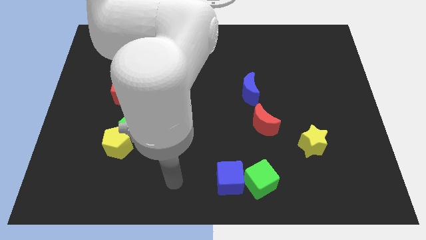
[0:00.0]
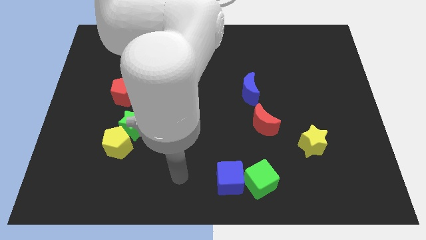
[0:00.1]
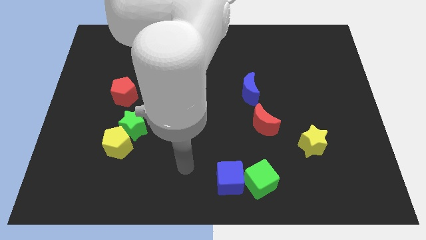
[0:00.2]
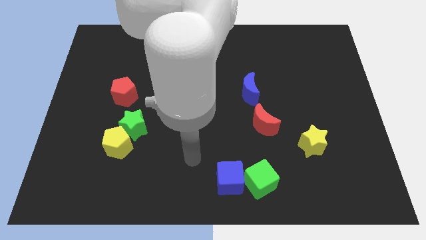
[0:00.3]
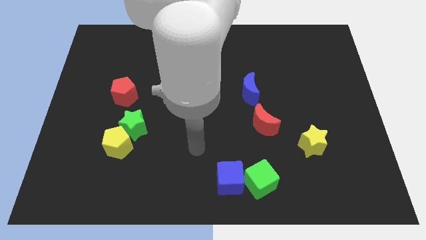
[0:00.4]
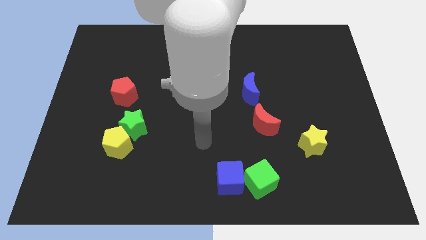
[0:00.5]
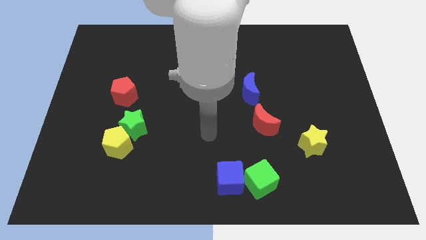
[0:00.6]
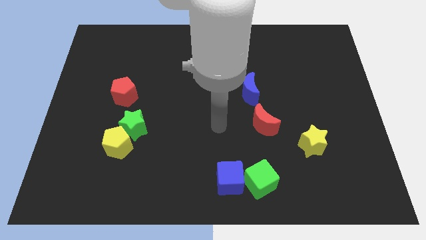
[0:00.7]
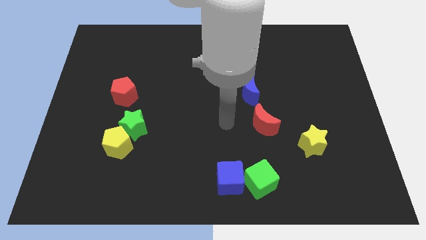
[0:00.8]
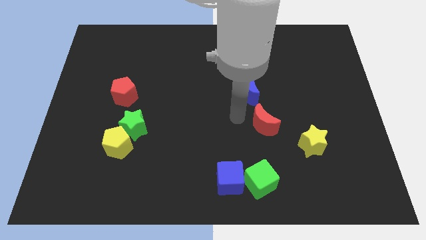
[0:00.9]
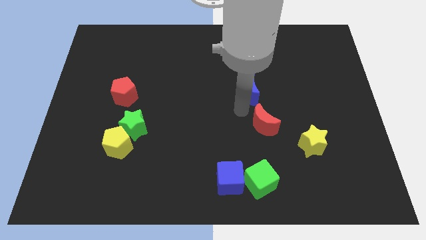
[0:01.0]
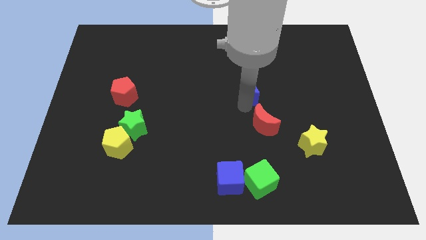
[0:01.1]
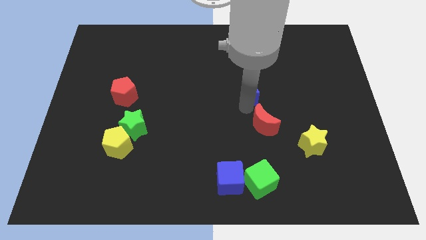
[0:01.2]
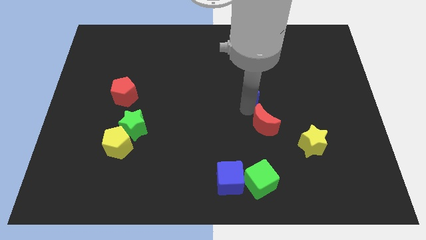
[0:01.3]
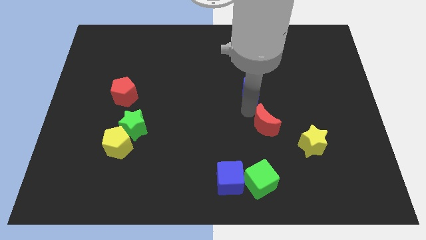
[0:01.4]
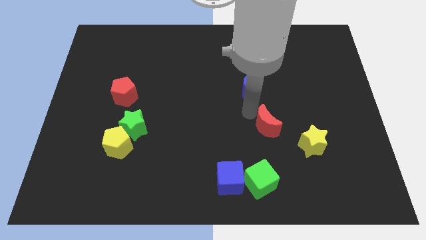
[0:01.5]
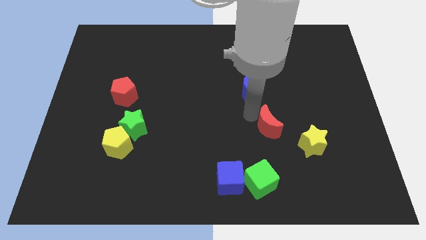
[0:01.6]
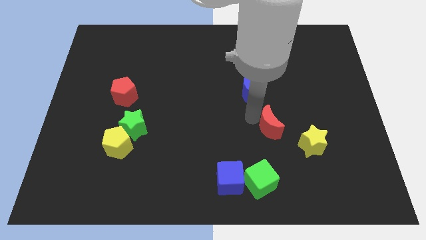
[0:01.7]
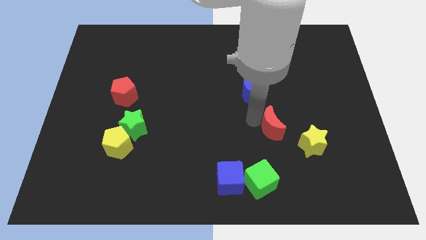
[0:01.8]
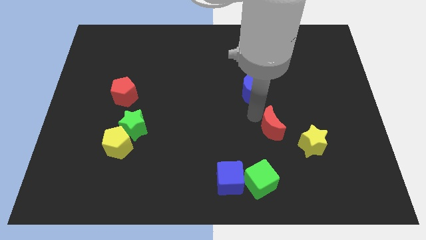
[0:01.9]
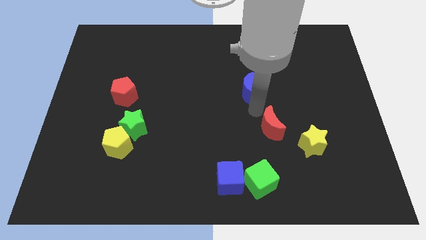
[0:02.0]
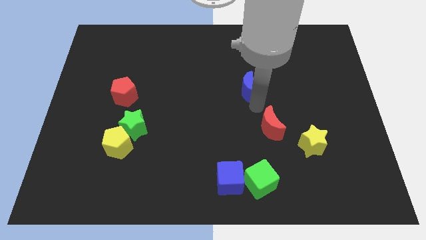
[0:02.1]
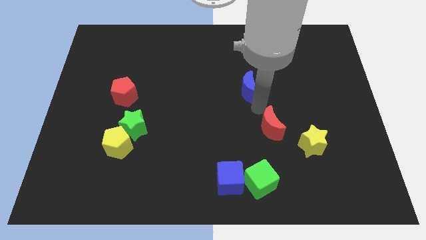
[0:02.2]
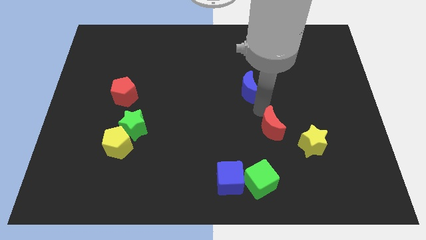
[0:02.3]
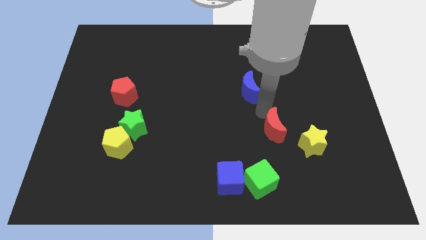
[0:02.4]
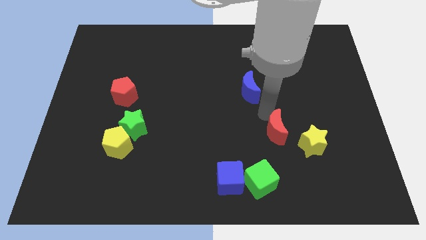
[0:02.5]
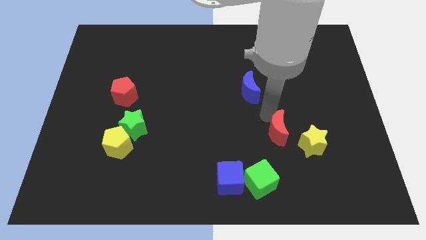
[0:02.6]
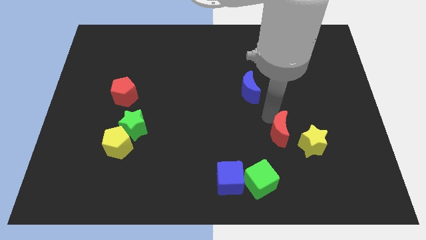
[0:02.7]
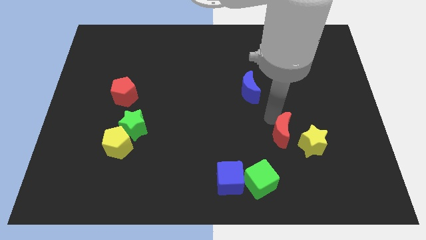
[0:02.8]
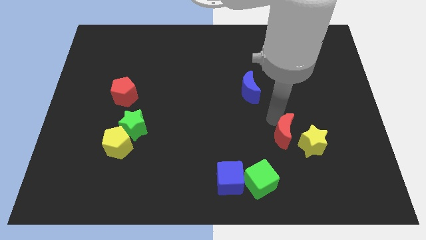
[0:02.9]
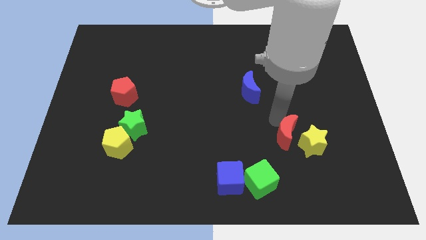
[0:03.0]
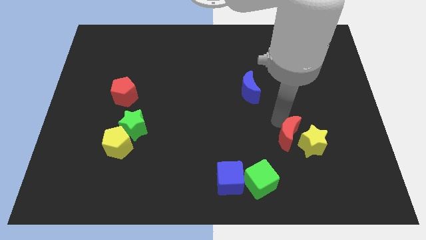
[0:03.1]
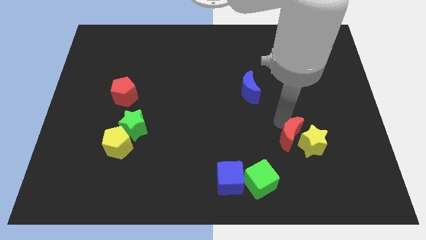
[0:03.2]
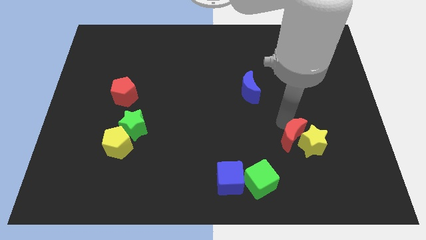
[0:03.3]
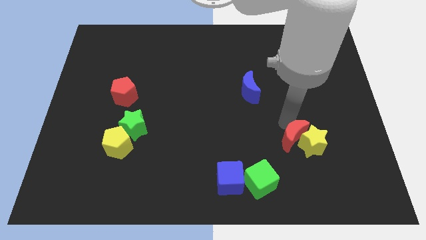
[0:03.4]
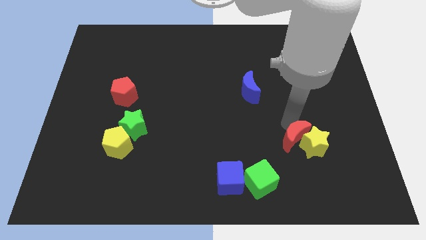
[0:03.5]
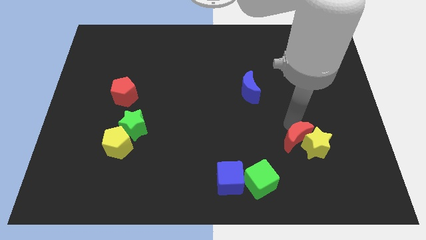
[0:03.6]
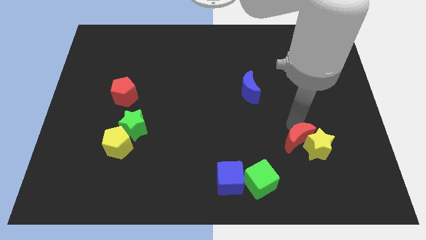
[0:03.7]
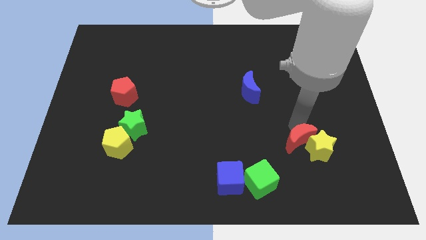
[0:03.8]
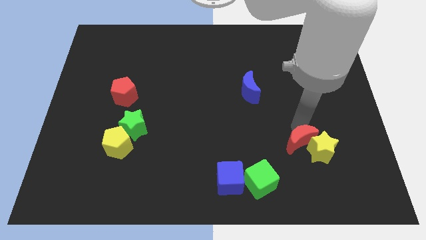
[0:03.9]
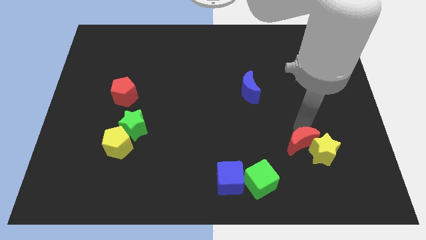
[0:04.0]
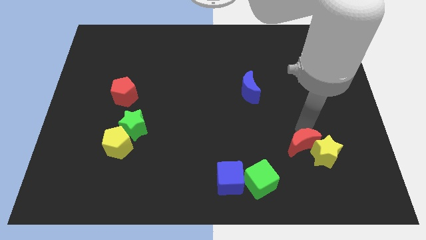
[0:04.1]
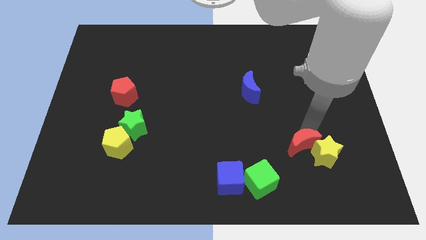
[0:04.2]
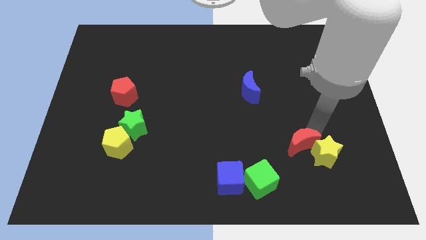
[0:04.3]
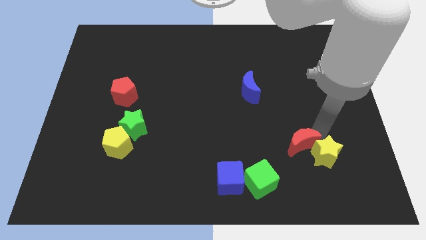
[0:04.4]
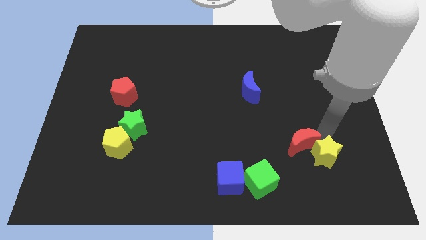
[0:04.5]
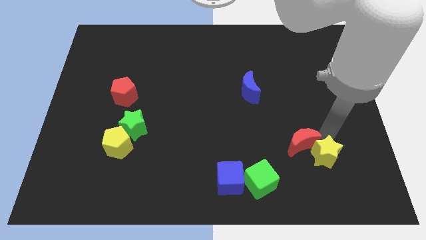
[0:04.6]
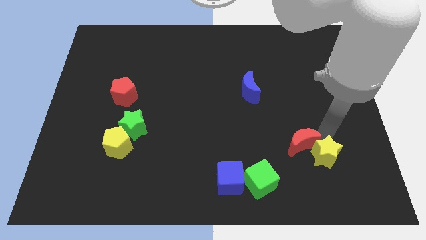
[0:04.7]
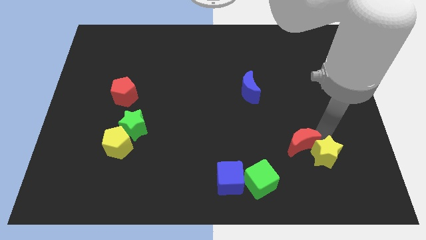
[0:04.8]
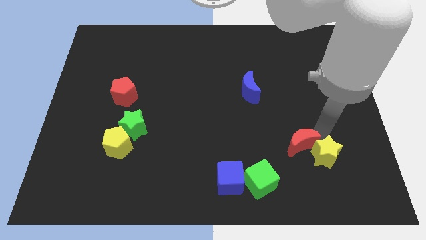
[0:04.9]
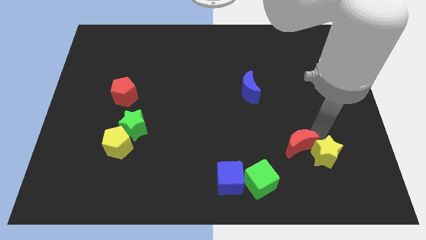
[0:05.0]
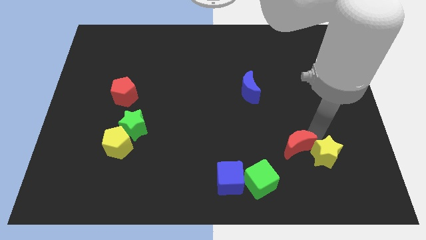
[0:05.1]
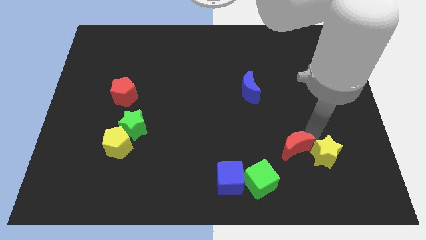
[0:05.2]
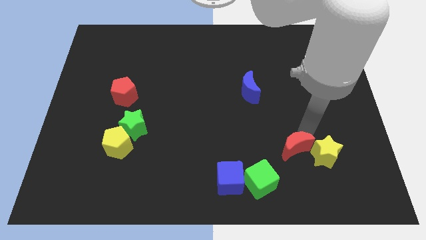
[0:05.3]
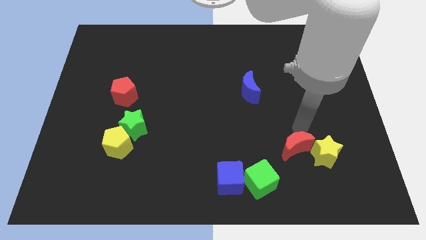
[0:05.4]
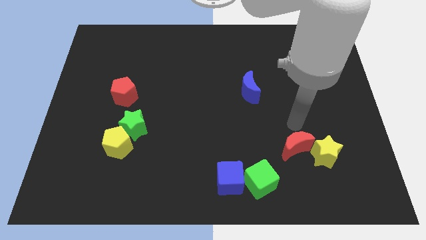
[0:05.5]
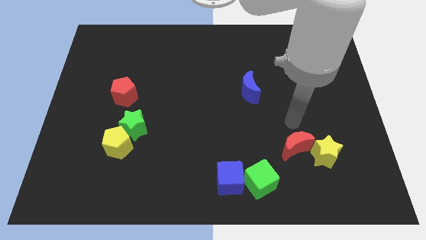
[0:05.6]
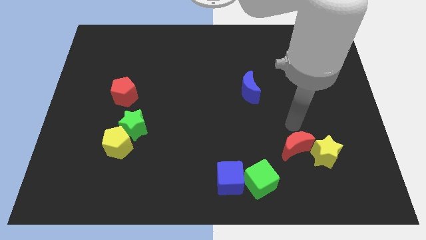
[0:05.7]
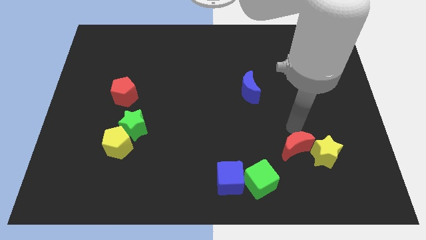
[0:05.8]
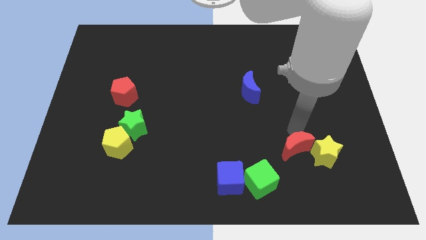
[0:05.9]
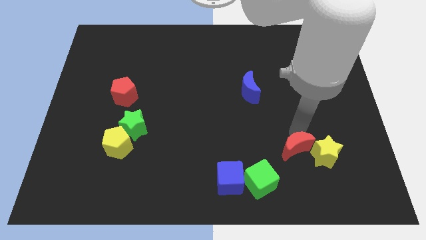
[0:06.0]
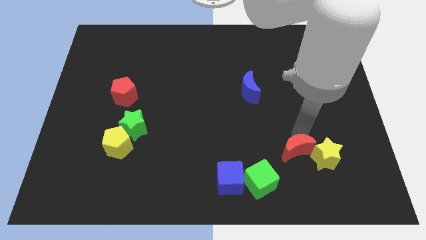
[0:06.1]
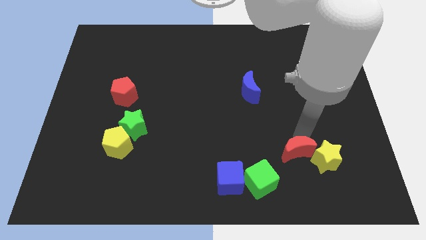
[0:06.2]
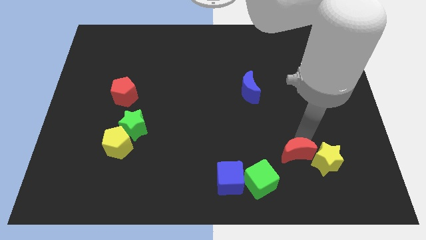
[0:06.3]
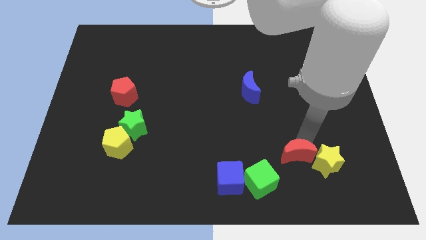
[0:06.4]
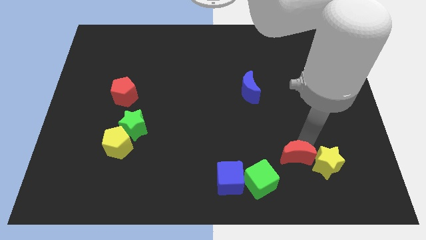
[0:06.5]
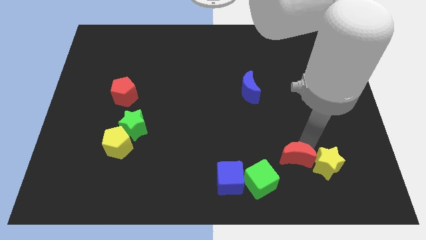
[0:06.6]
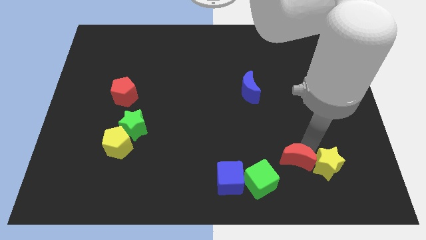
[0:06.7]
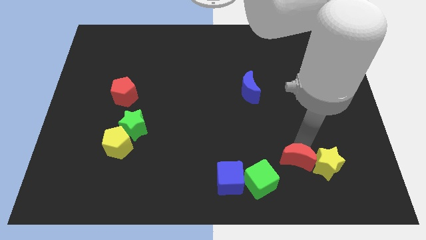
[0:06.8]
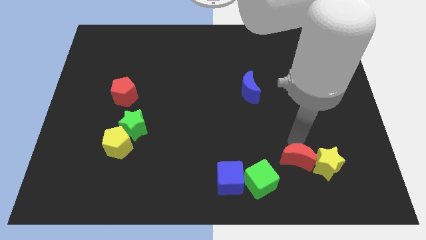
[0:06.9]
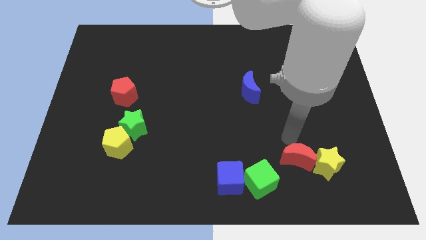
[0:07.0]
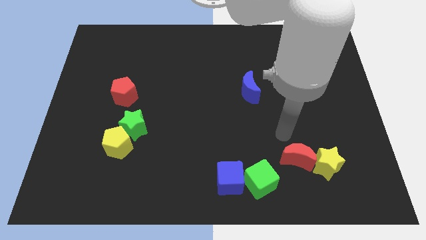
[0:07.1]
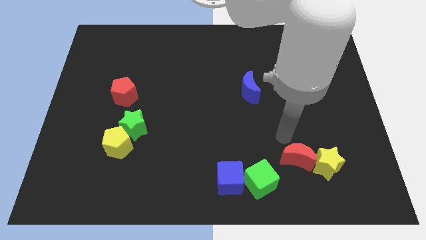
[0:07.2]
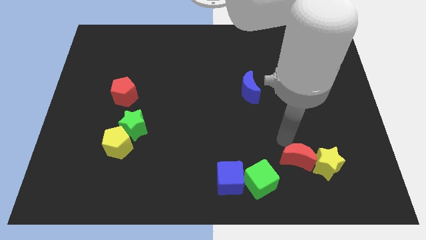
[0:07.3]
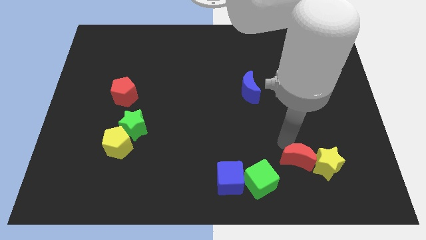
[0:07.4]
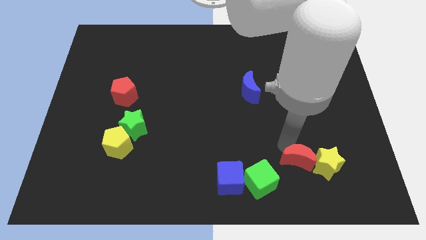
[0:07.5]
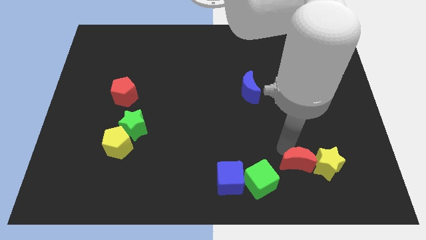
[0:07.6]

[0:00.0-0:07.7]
slide the red moon to the right side of the green cube

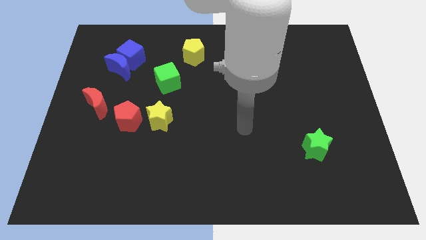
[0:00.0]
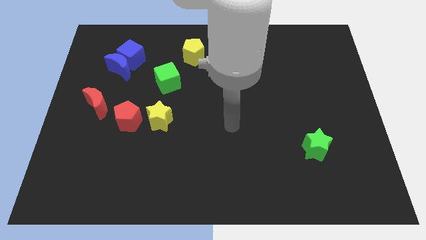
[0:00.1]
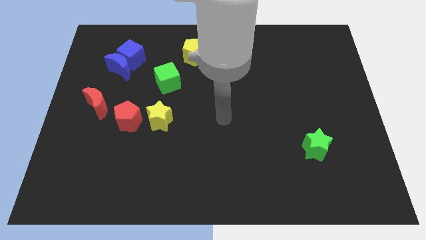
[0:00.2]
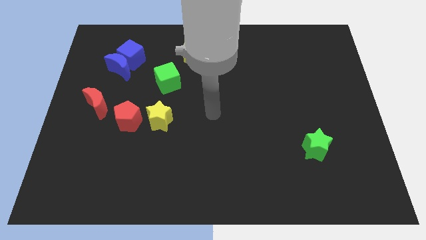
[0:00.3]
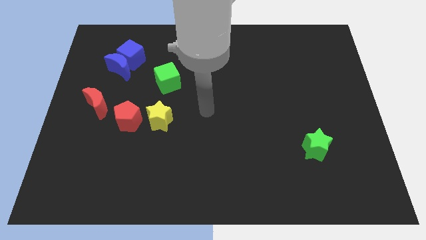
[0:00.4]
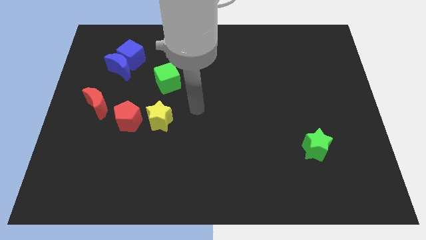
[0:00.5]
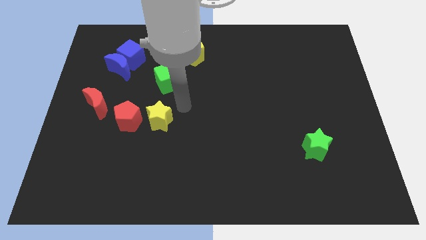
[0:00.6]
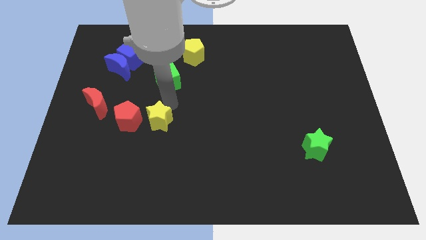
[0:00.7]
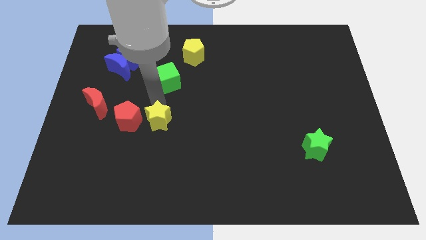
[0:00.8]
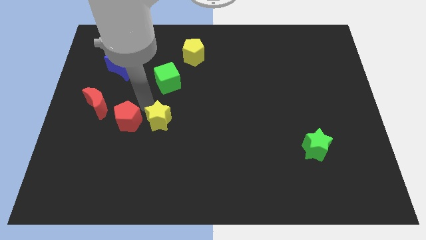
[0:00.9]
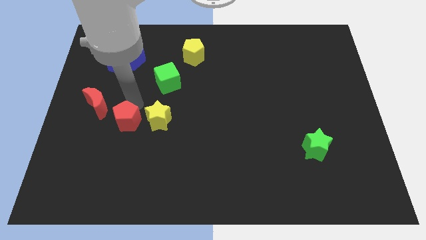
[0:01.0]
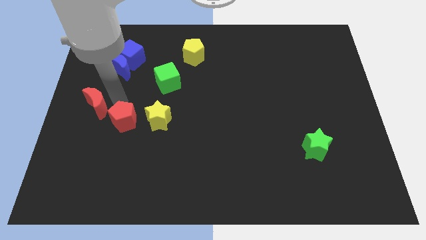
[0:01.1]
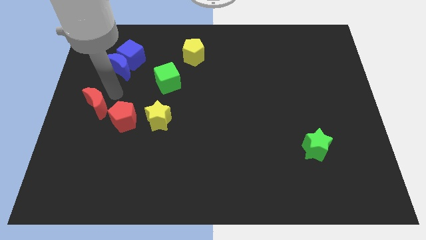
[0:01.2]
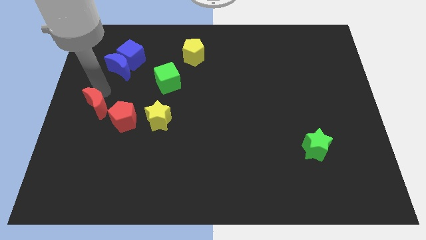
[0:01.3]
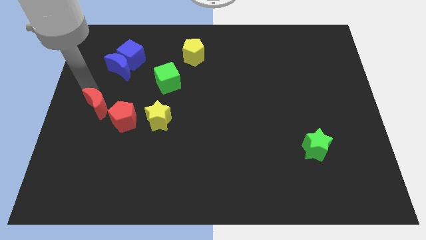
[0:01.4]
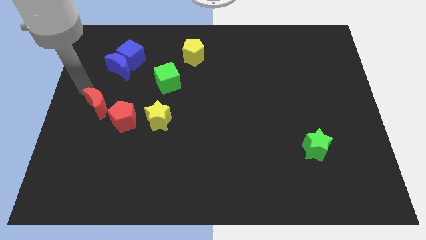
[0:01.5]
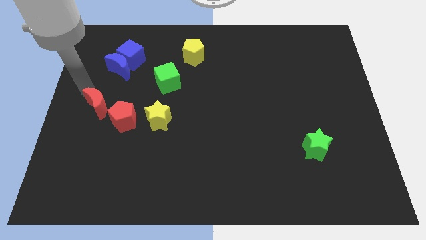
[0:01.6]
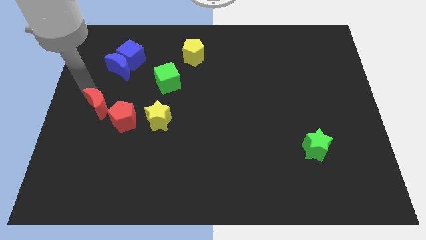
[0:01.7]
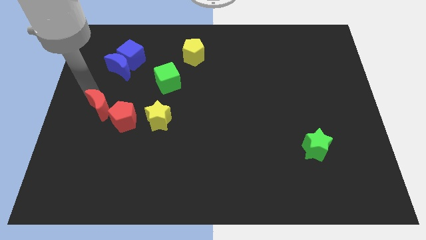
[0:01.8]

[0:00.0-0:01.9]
push the red moon just left of the yellow star
